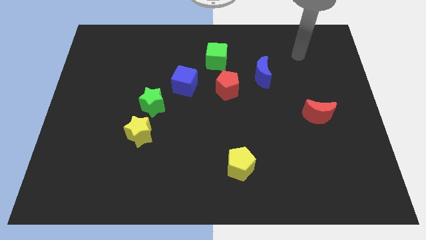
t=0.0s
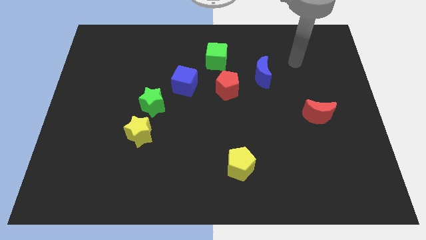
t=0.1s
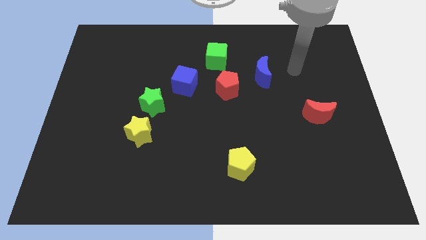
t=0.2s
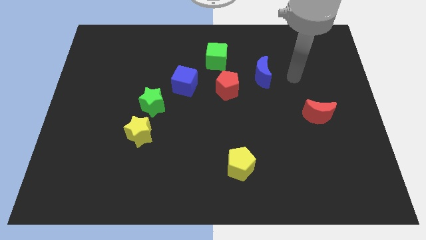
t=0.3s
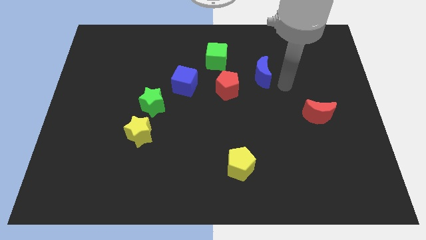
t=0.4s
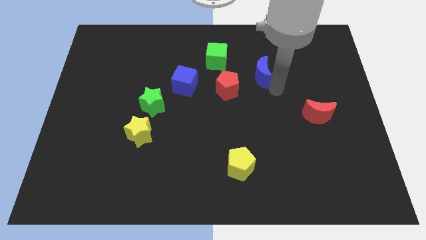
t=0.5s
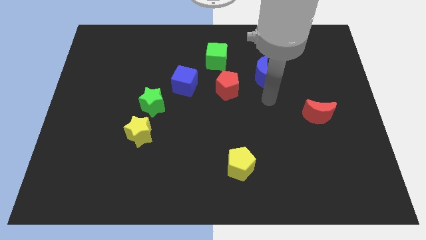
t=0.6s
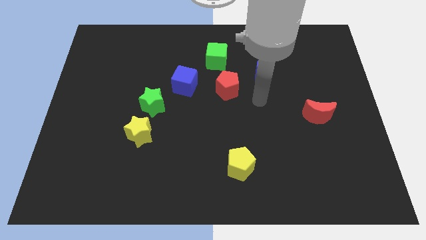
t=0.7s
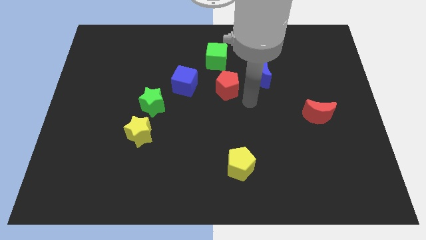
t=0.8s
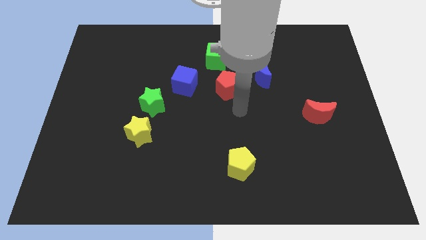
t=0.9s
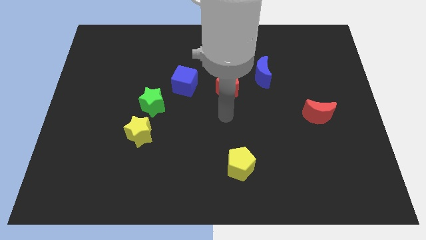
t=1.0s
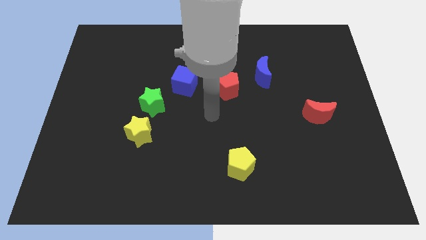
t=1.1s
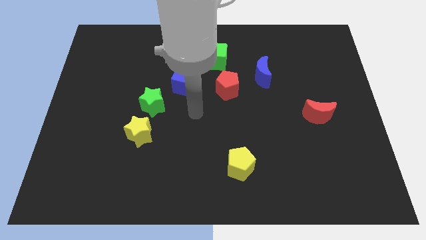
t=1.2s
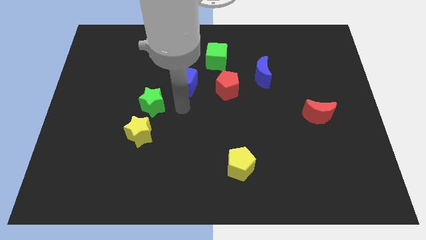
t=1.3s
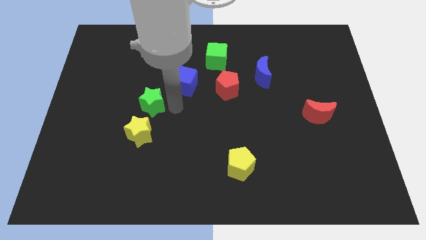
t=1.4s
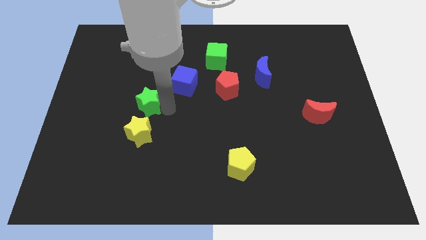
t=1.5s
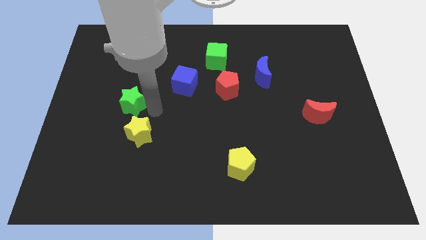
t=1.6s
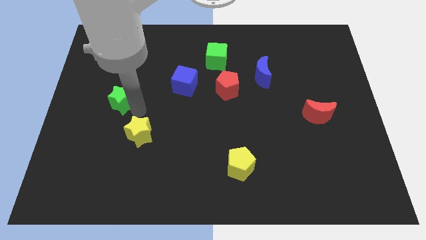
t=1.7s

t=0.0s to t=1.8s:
move the yellow star away from the green star

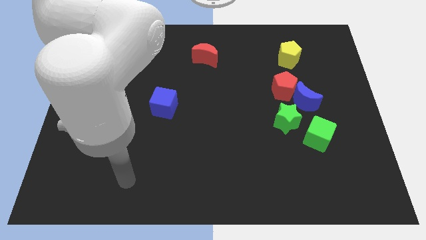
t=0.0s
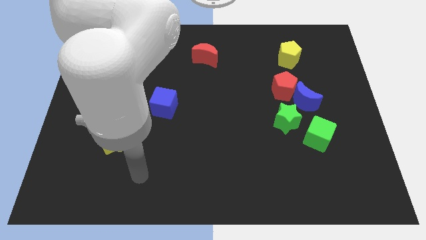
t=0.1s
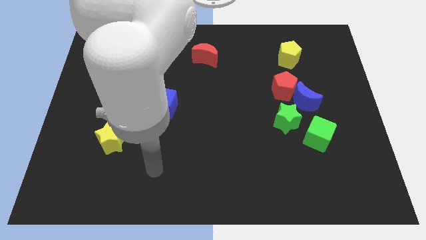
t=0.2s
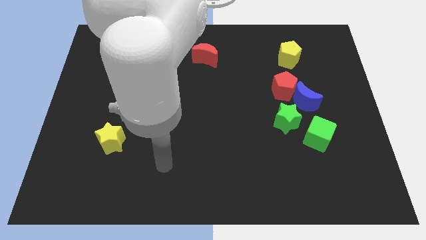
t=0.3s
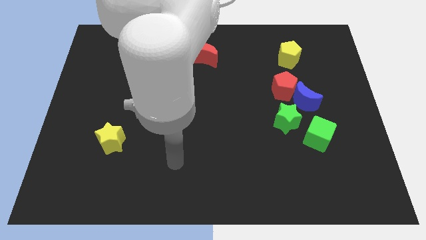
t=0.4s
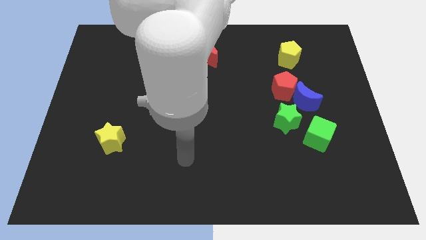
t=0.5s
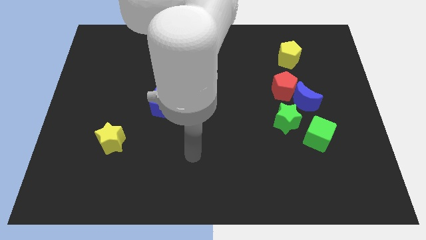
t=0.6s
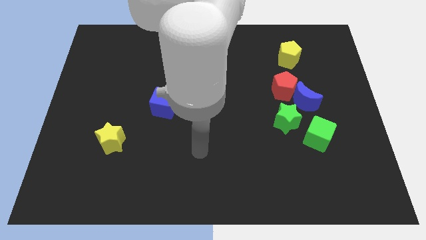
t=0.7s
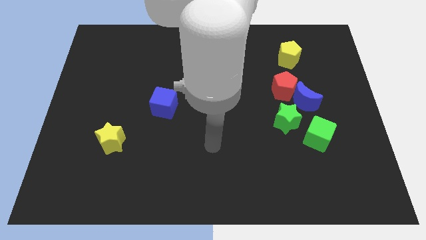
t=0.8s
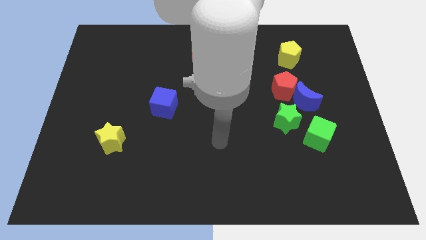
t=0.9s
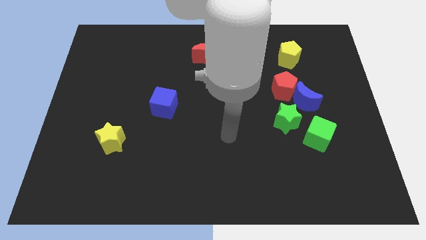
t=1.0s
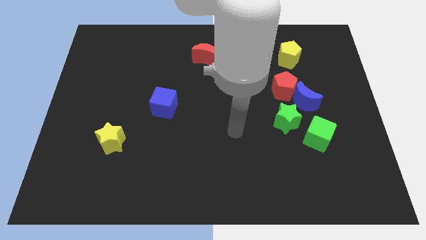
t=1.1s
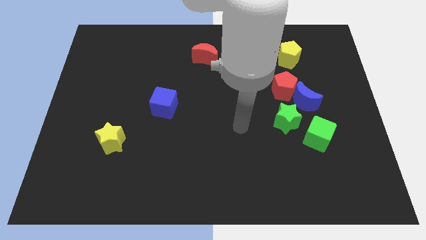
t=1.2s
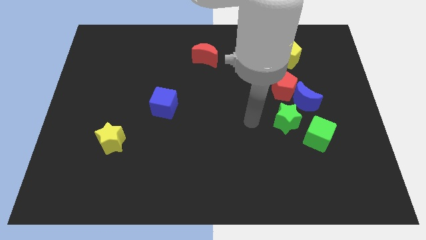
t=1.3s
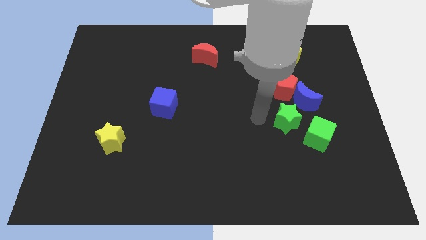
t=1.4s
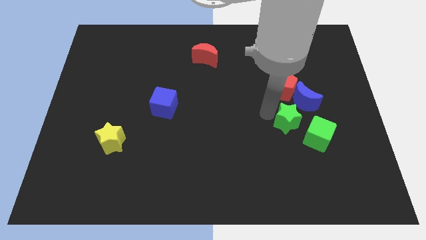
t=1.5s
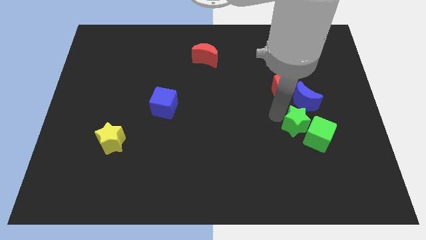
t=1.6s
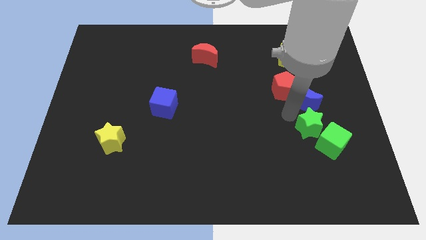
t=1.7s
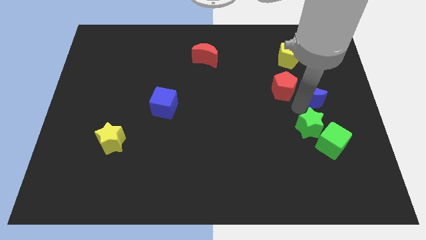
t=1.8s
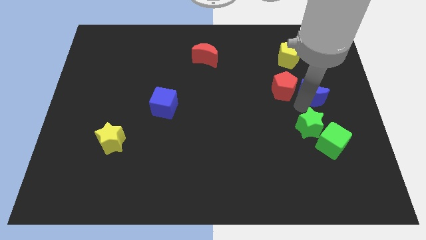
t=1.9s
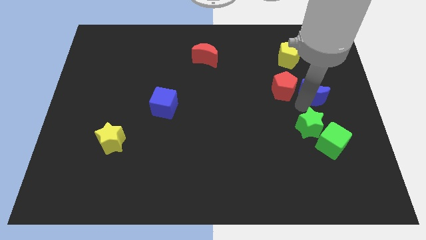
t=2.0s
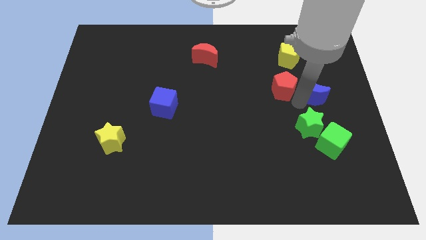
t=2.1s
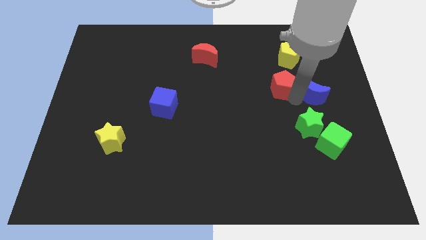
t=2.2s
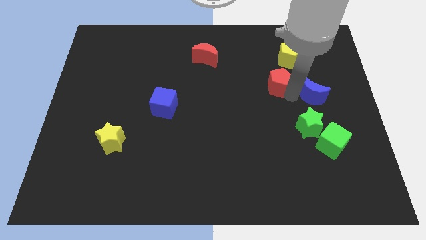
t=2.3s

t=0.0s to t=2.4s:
pull the red pentagon apart from the blue moon and green star

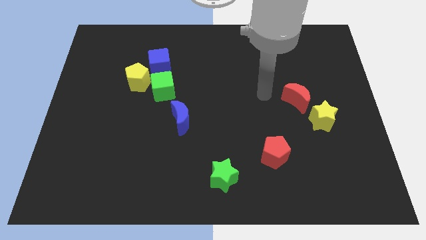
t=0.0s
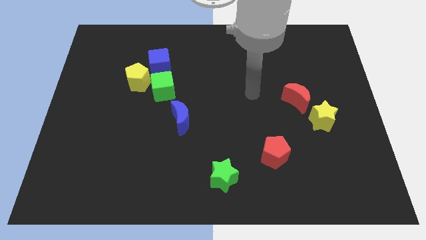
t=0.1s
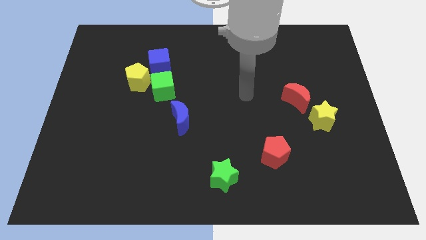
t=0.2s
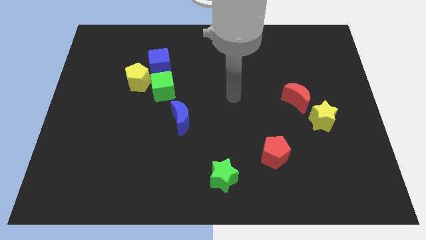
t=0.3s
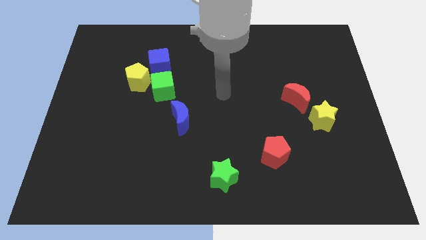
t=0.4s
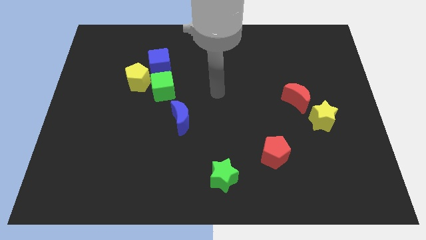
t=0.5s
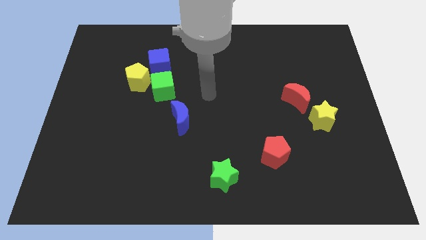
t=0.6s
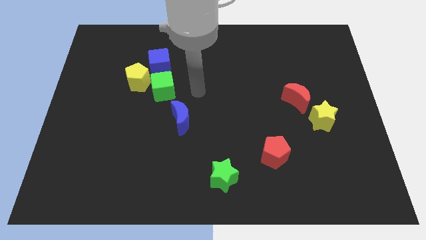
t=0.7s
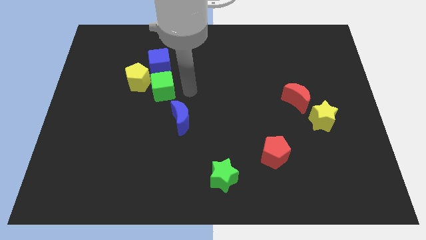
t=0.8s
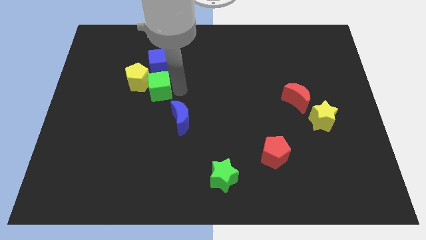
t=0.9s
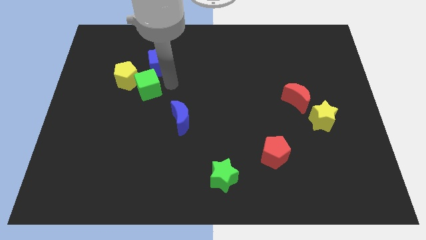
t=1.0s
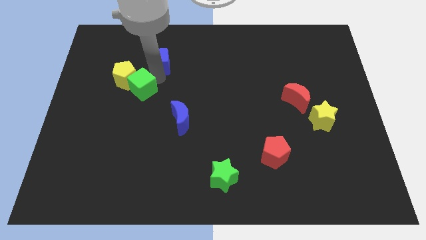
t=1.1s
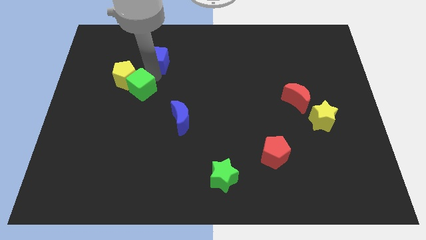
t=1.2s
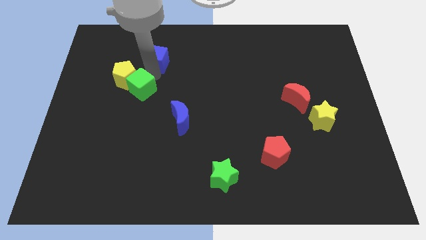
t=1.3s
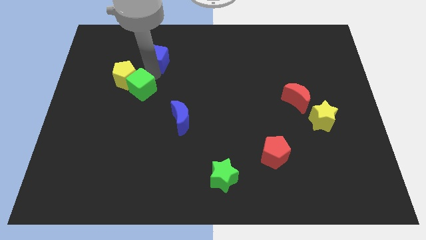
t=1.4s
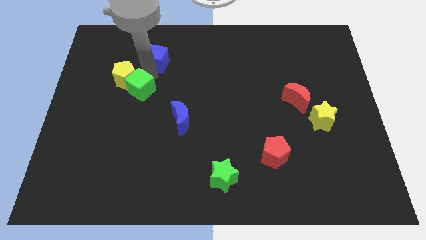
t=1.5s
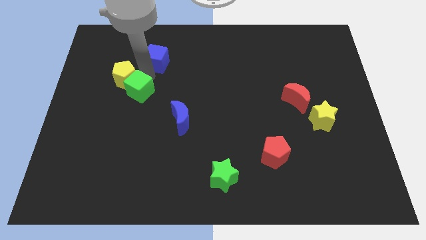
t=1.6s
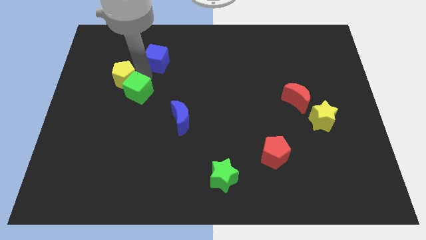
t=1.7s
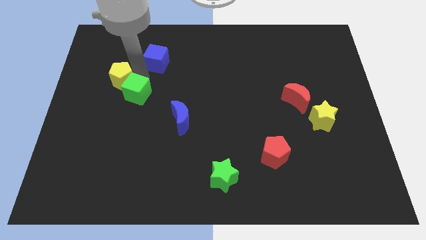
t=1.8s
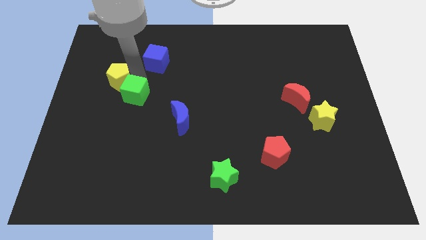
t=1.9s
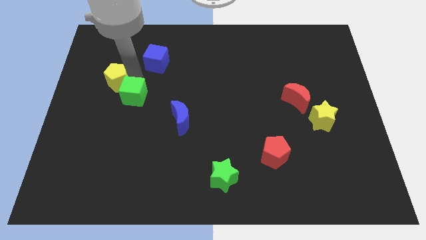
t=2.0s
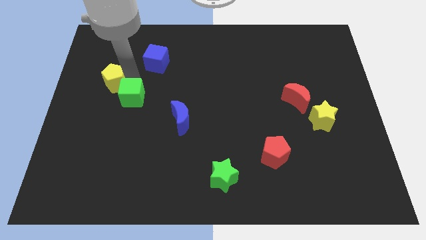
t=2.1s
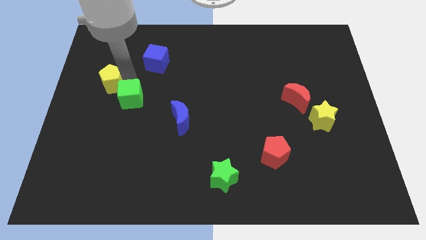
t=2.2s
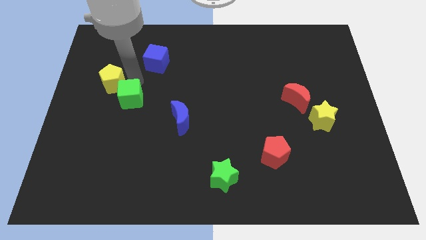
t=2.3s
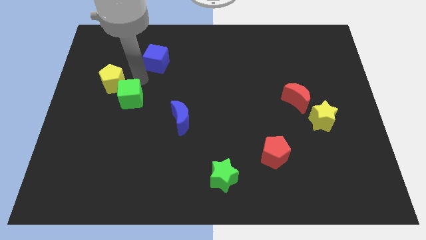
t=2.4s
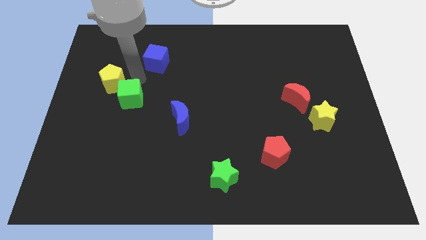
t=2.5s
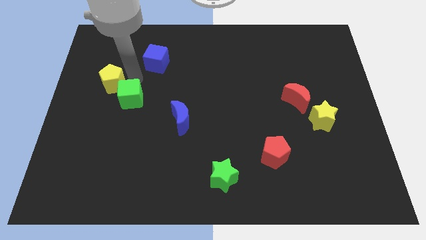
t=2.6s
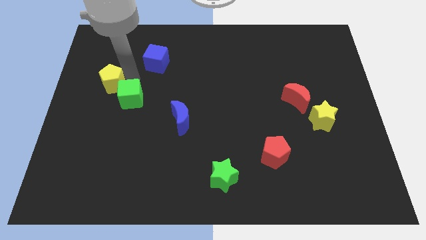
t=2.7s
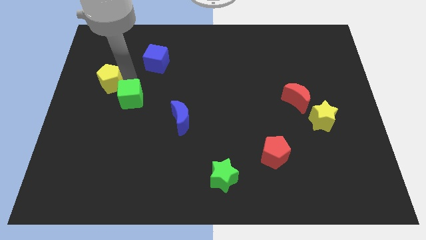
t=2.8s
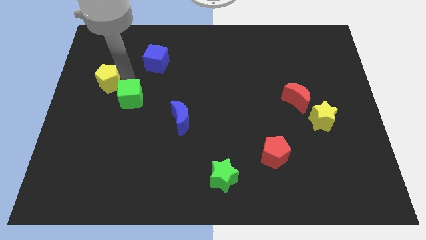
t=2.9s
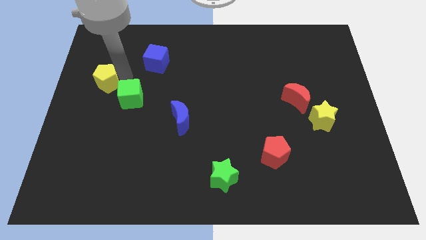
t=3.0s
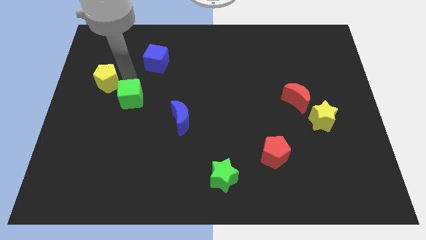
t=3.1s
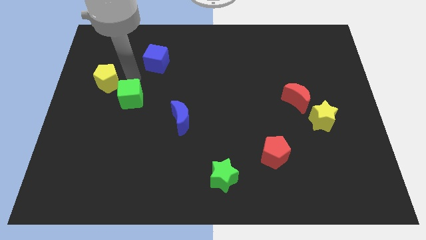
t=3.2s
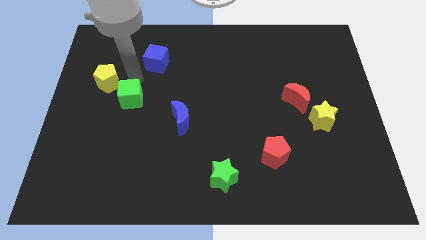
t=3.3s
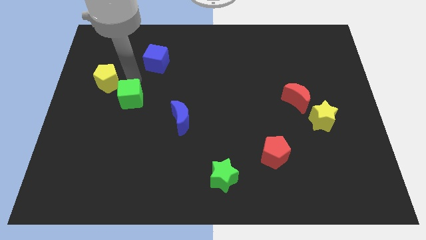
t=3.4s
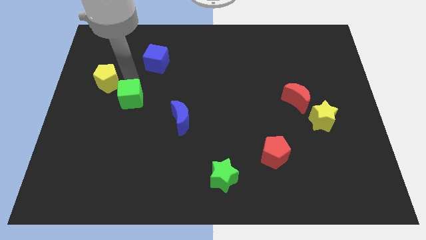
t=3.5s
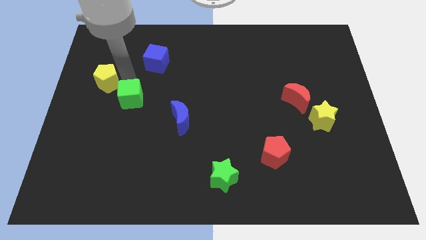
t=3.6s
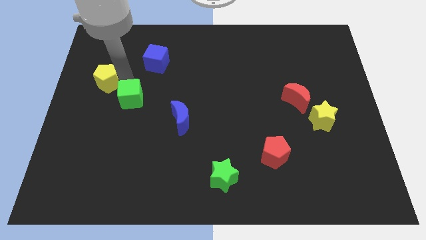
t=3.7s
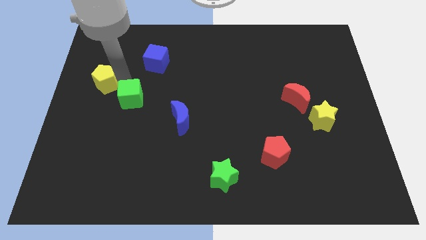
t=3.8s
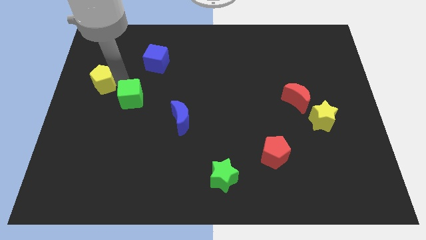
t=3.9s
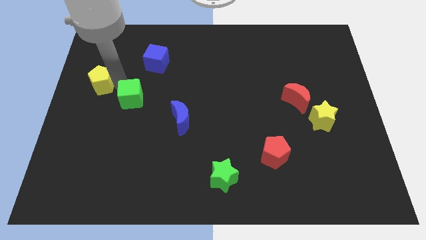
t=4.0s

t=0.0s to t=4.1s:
pull the yellow pentagon apart from the green cube and blue cube

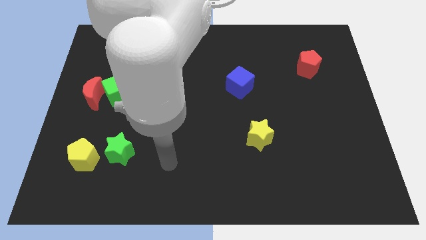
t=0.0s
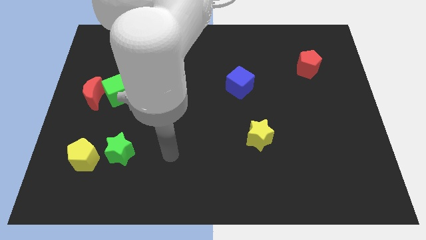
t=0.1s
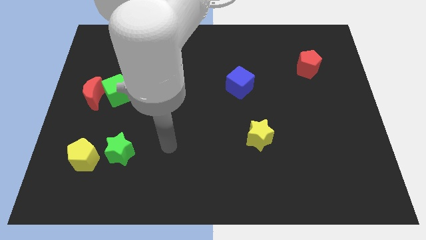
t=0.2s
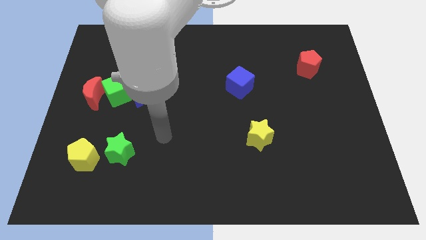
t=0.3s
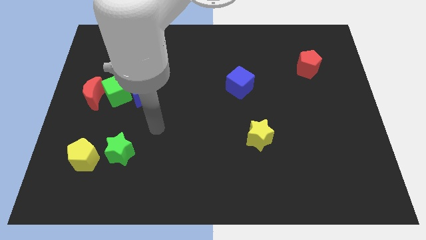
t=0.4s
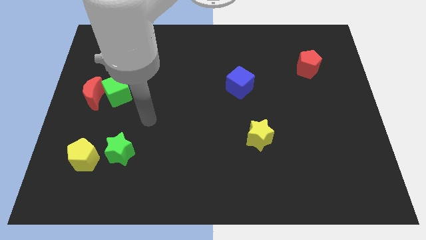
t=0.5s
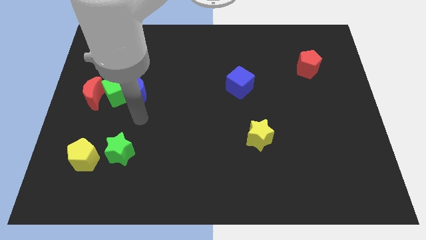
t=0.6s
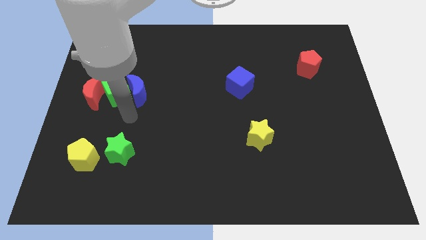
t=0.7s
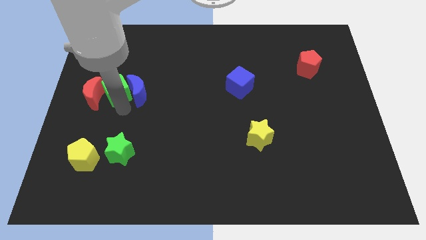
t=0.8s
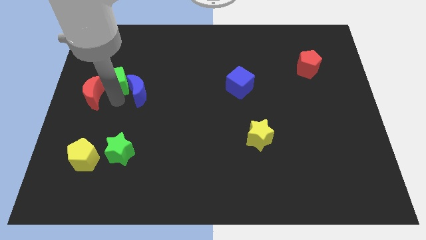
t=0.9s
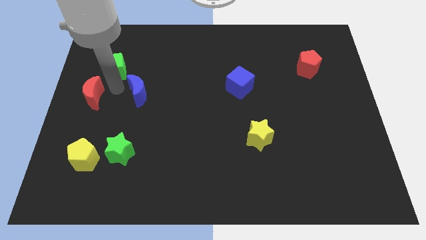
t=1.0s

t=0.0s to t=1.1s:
separate the blue moon from the green cube

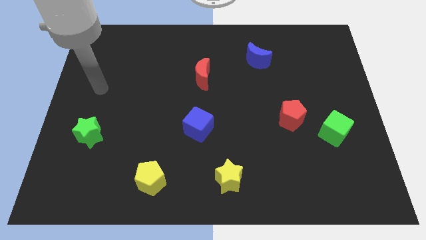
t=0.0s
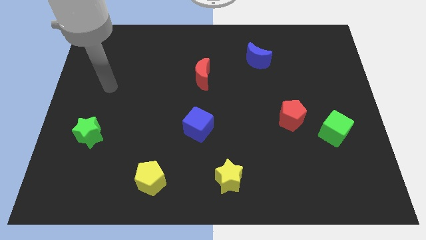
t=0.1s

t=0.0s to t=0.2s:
pull the red pentagon apart from the green cube
